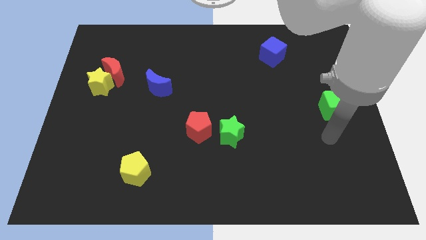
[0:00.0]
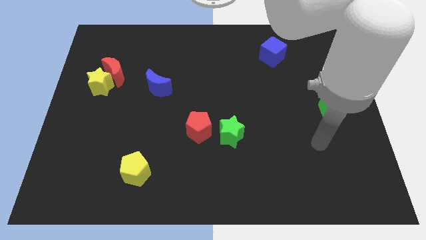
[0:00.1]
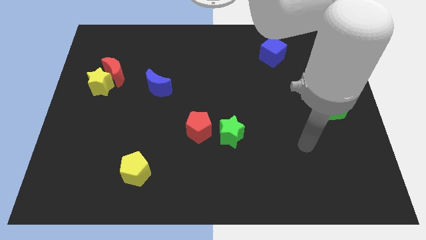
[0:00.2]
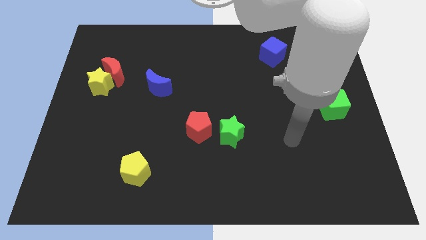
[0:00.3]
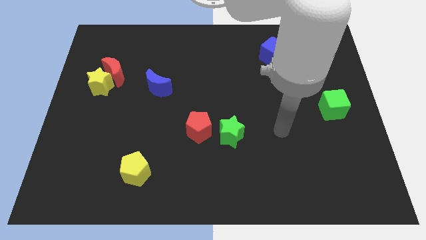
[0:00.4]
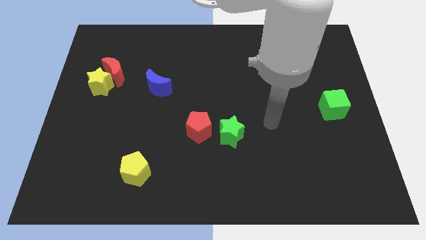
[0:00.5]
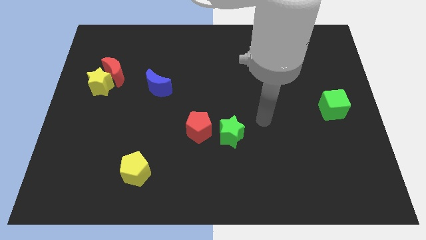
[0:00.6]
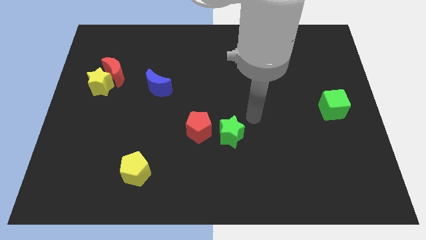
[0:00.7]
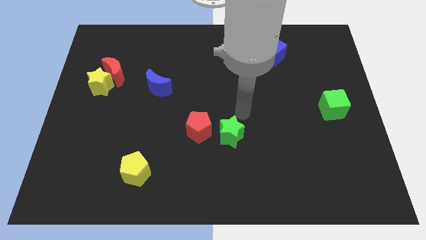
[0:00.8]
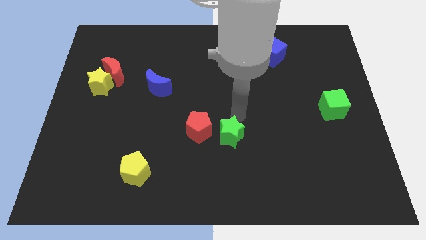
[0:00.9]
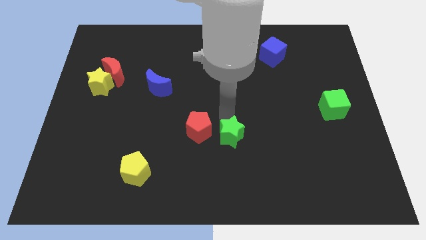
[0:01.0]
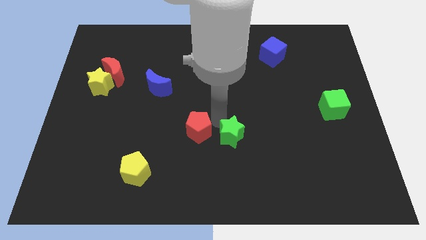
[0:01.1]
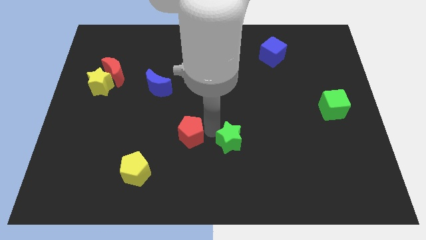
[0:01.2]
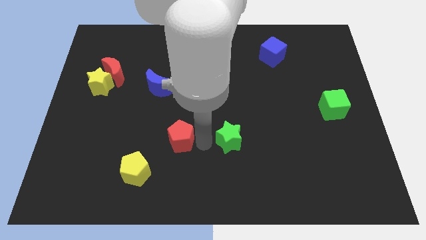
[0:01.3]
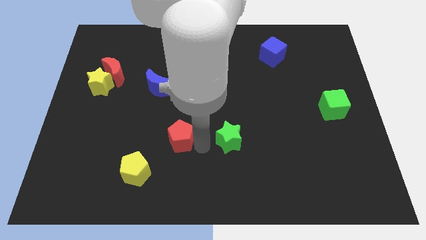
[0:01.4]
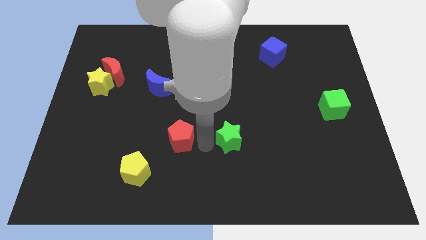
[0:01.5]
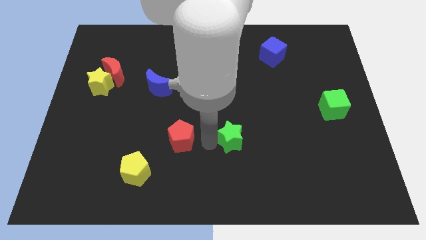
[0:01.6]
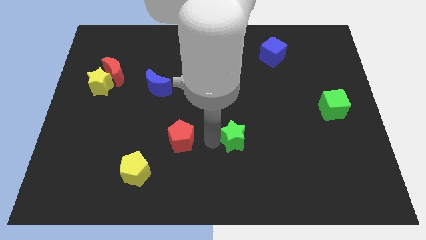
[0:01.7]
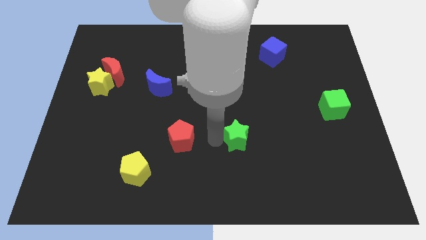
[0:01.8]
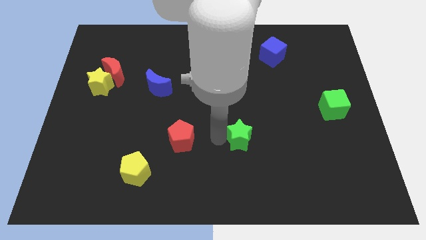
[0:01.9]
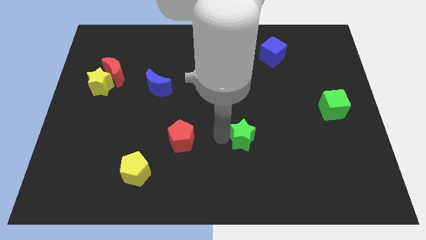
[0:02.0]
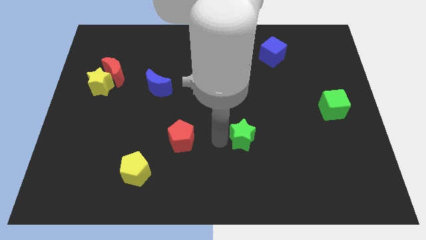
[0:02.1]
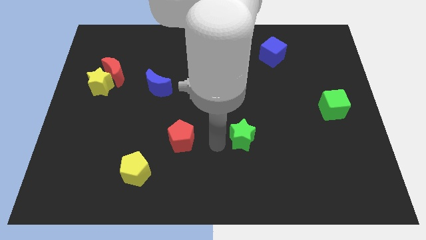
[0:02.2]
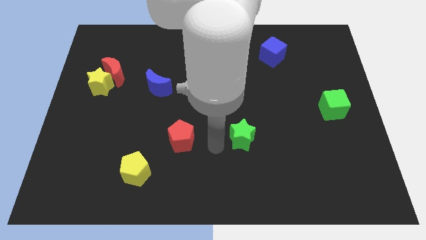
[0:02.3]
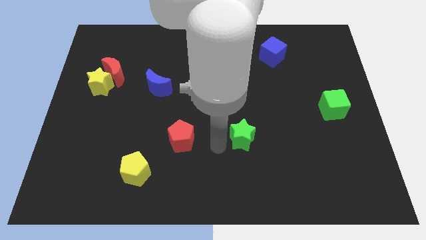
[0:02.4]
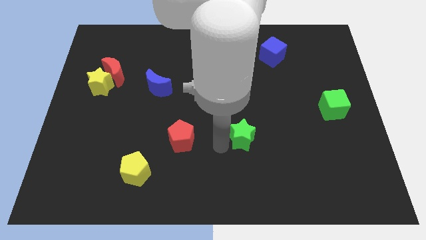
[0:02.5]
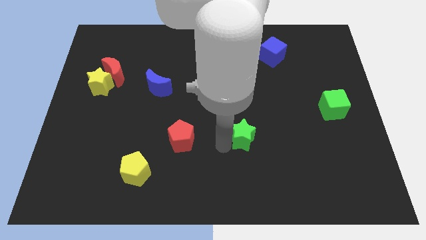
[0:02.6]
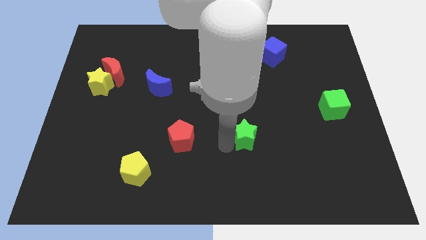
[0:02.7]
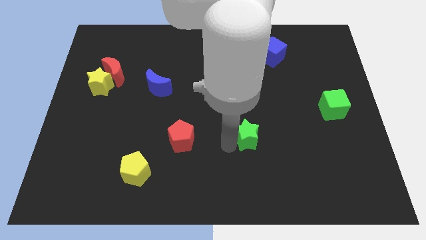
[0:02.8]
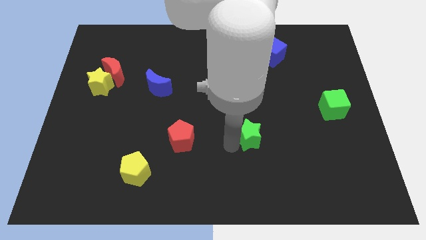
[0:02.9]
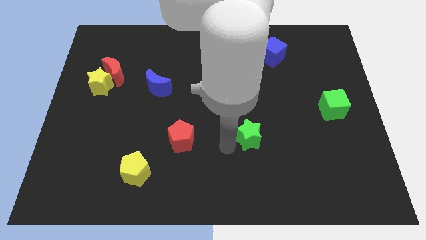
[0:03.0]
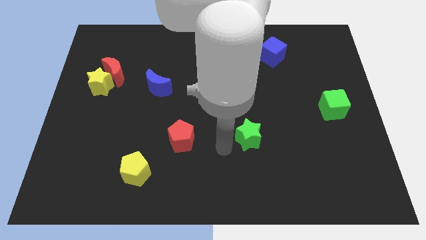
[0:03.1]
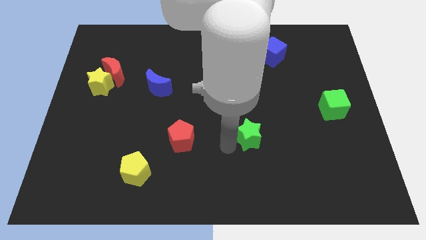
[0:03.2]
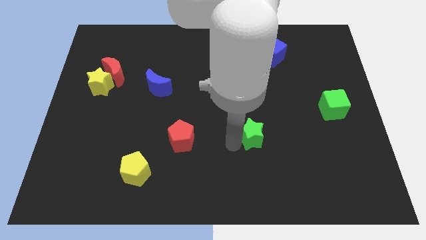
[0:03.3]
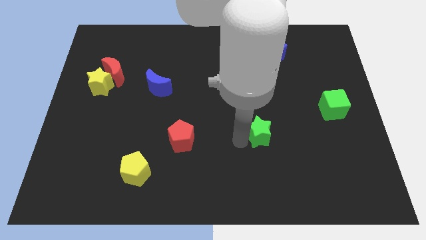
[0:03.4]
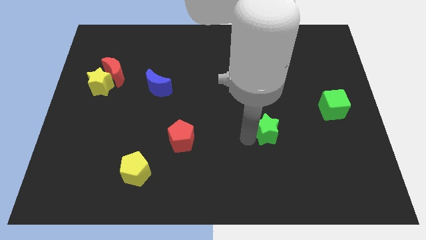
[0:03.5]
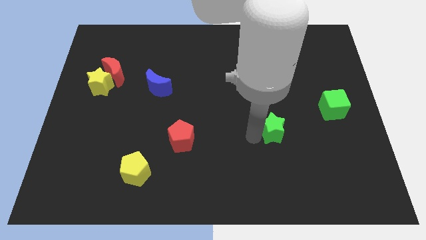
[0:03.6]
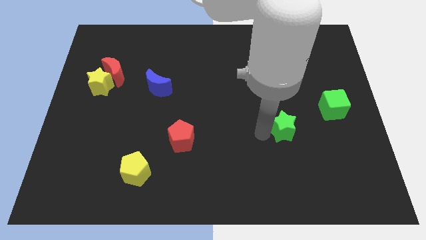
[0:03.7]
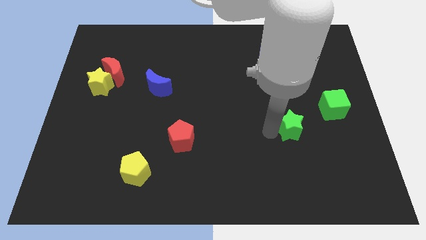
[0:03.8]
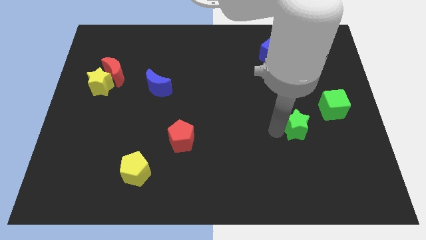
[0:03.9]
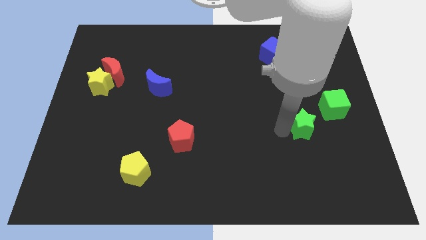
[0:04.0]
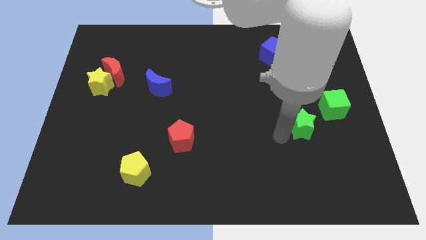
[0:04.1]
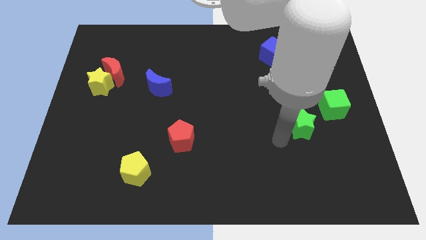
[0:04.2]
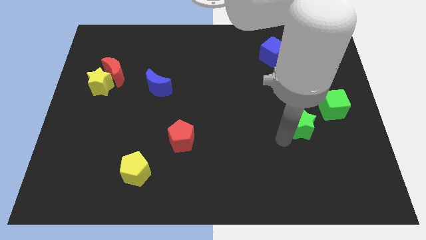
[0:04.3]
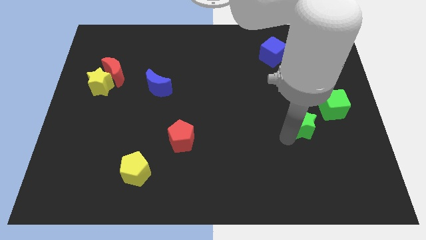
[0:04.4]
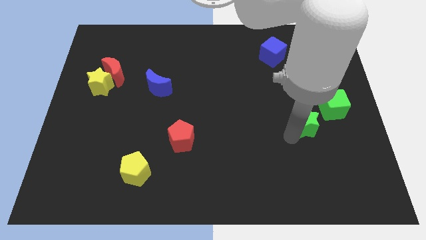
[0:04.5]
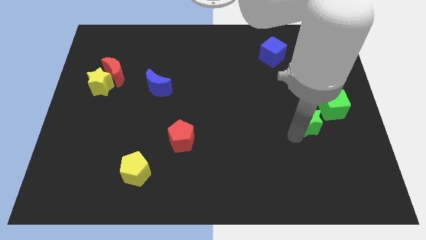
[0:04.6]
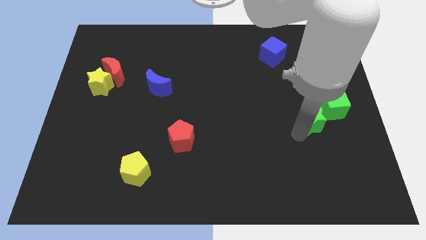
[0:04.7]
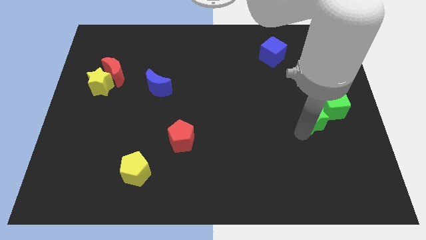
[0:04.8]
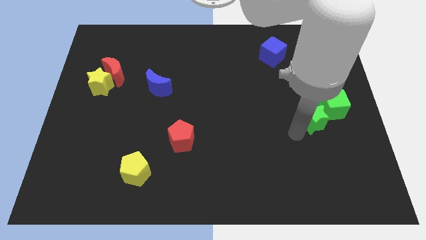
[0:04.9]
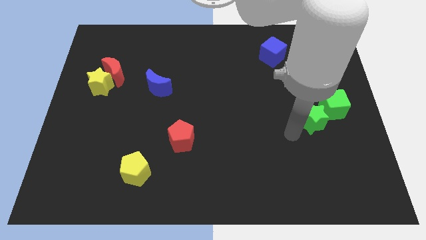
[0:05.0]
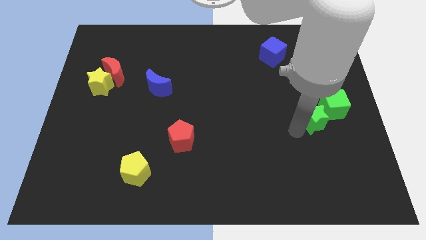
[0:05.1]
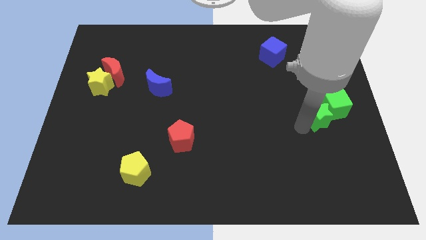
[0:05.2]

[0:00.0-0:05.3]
move the green star towards the green cube

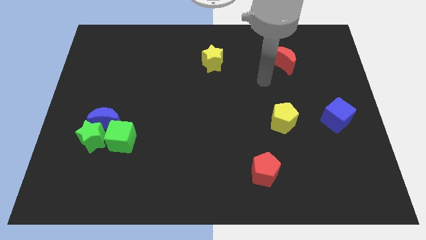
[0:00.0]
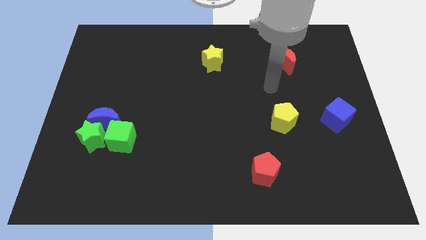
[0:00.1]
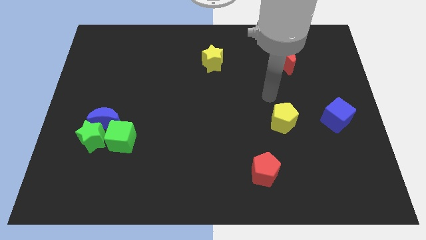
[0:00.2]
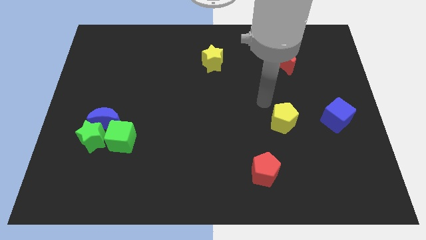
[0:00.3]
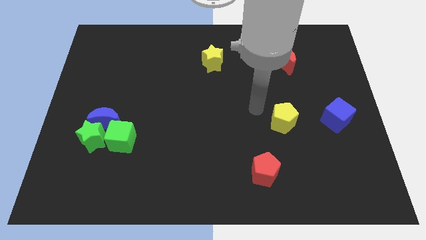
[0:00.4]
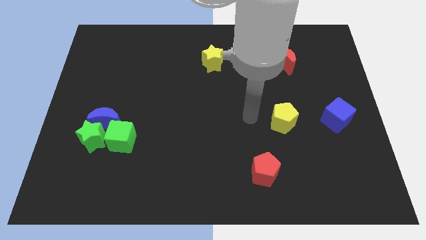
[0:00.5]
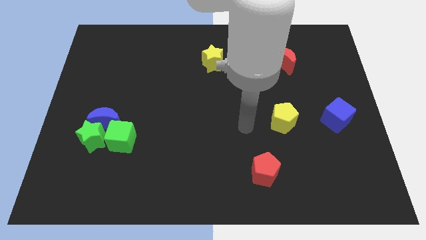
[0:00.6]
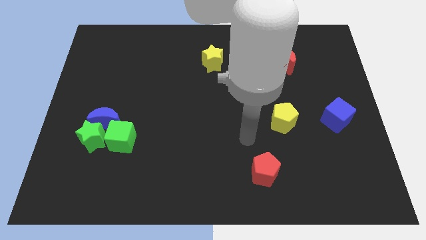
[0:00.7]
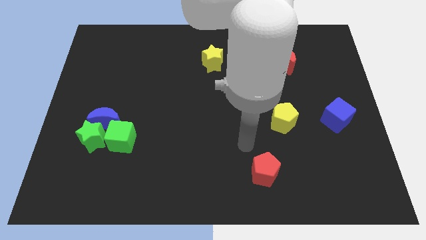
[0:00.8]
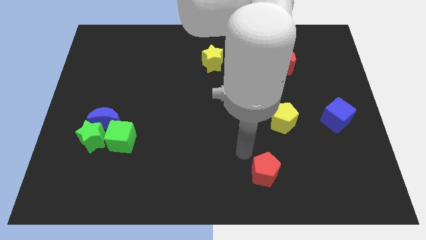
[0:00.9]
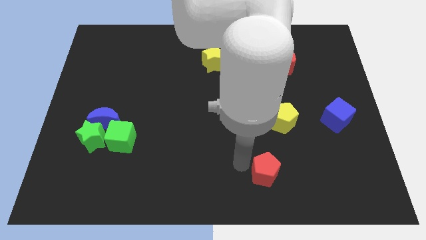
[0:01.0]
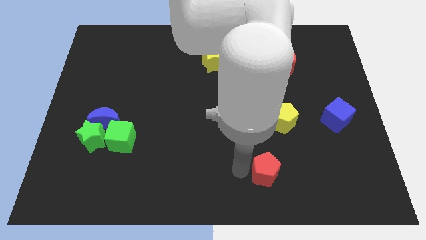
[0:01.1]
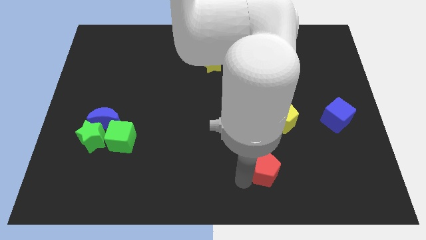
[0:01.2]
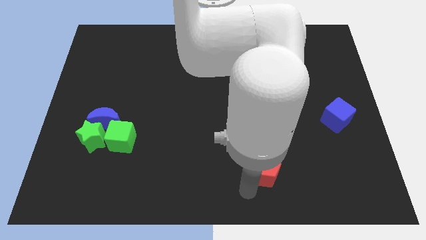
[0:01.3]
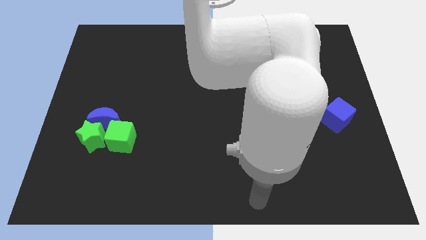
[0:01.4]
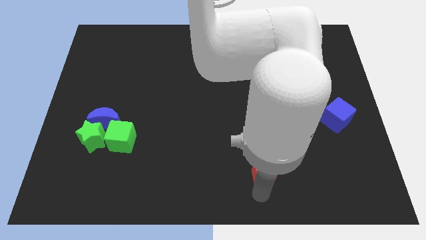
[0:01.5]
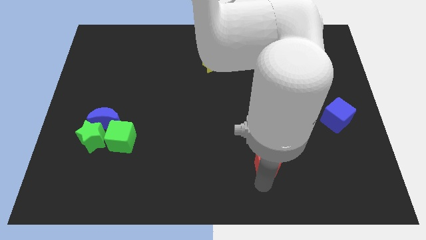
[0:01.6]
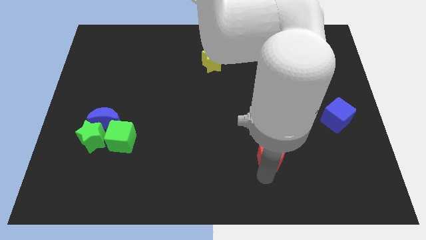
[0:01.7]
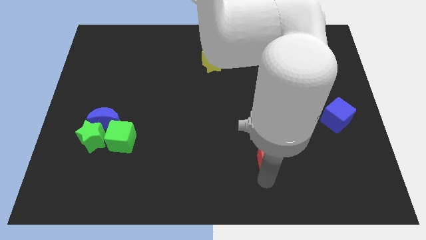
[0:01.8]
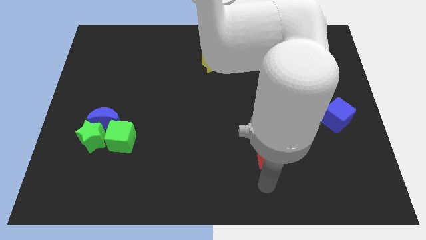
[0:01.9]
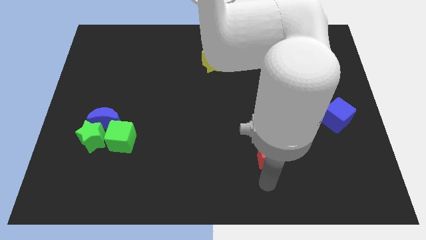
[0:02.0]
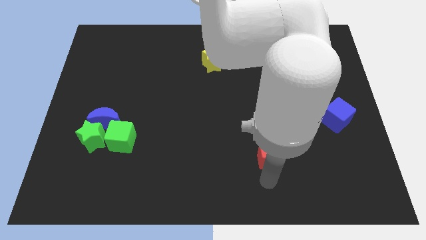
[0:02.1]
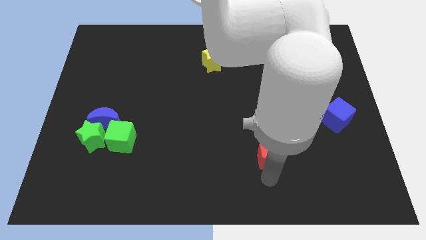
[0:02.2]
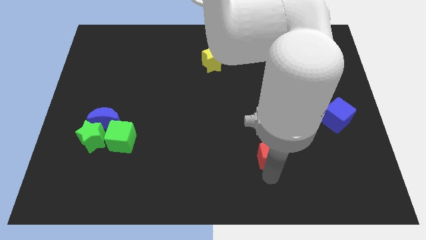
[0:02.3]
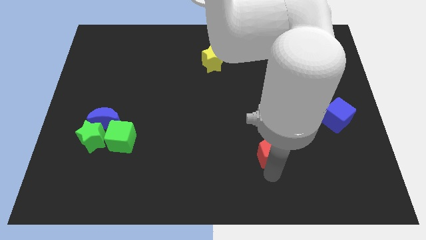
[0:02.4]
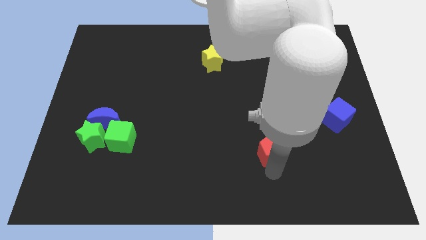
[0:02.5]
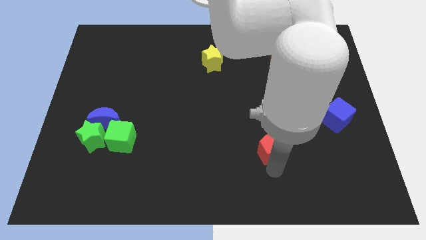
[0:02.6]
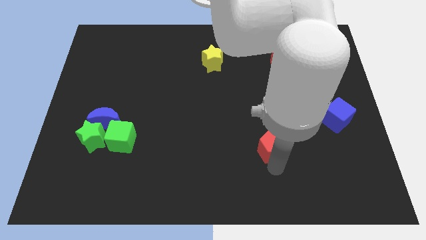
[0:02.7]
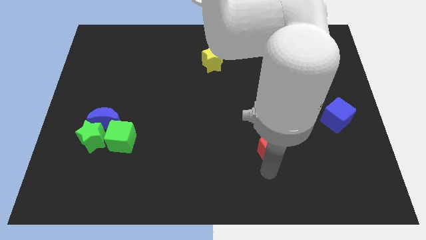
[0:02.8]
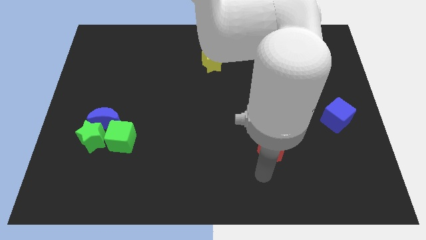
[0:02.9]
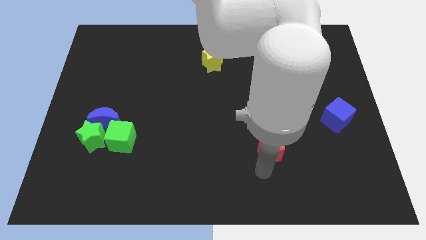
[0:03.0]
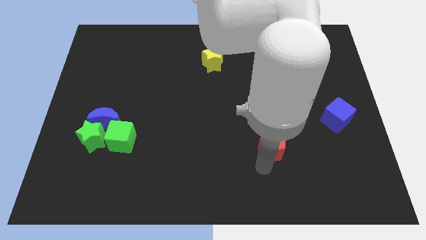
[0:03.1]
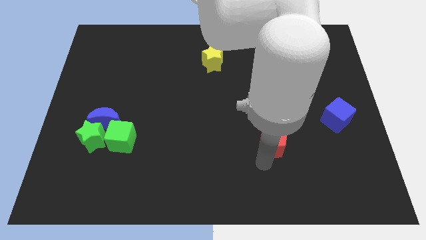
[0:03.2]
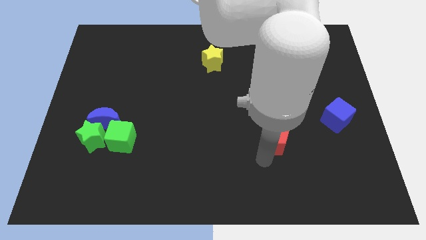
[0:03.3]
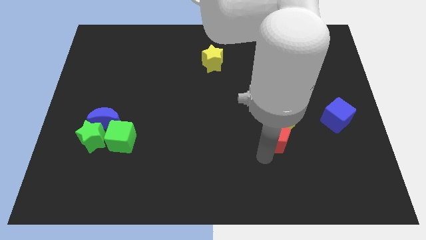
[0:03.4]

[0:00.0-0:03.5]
push the red pentagon towards the yellow pentagon
